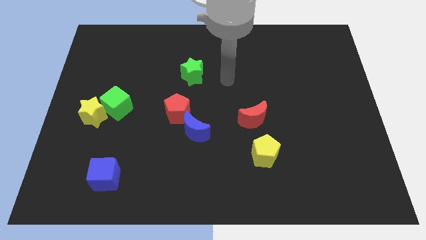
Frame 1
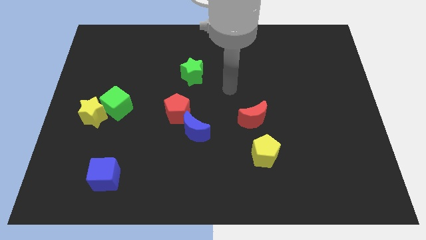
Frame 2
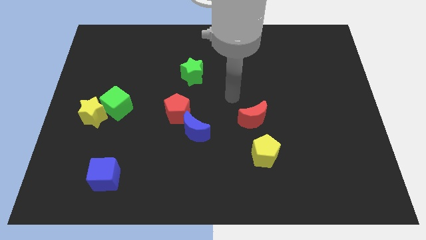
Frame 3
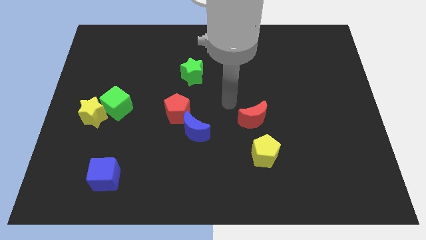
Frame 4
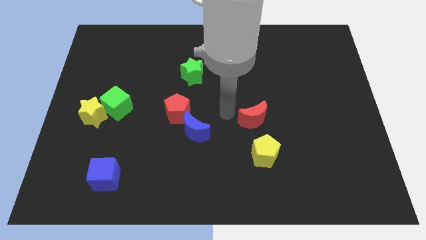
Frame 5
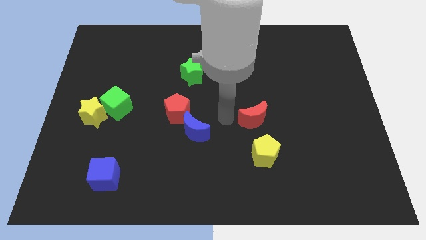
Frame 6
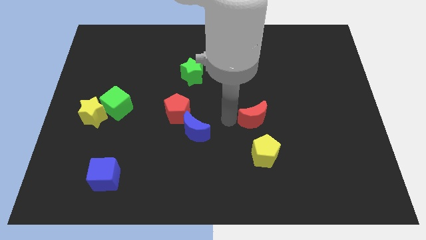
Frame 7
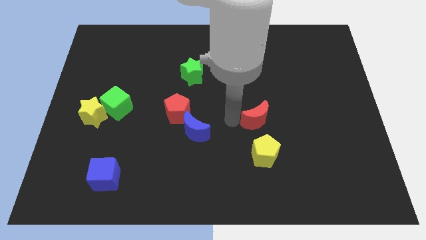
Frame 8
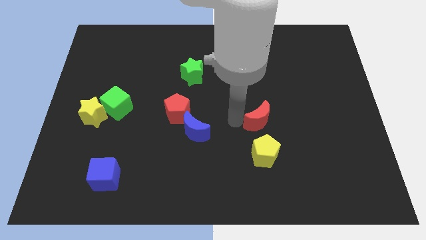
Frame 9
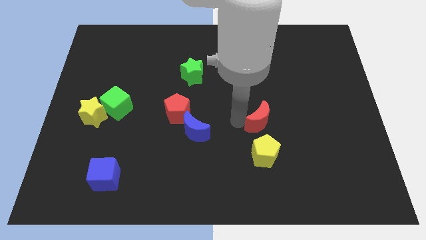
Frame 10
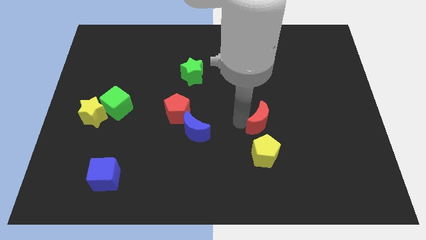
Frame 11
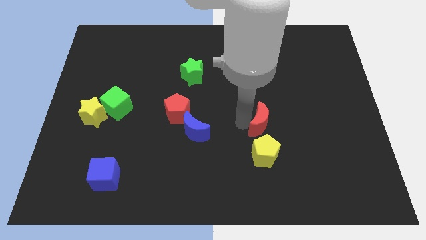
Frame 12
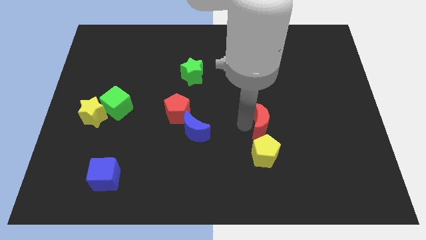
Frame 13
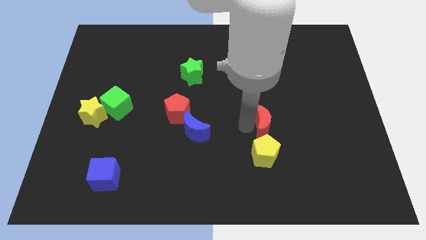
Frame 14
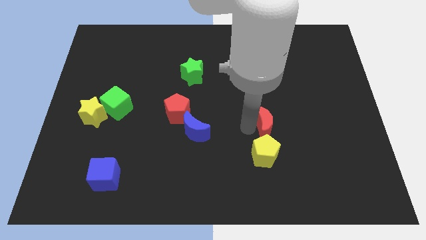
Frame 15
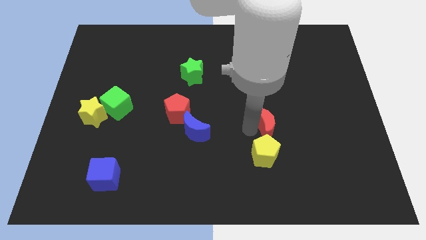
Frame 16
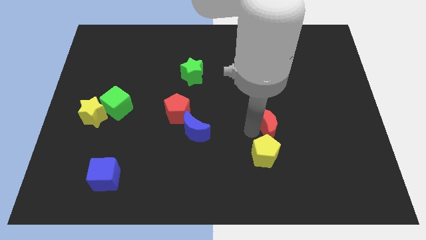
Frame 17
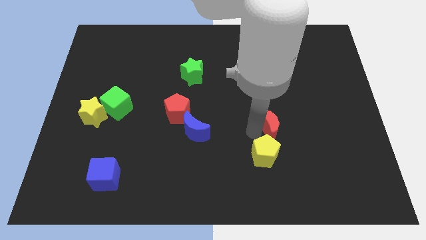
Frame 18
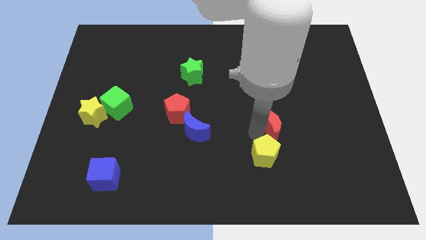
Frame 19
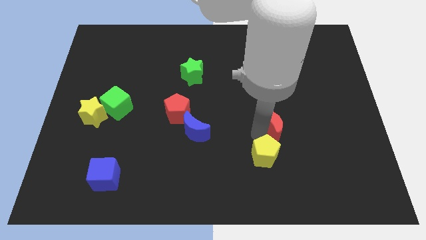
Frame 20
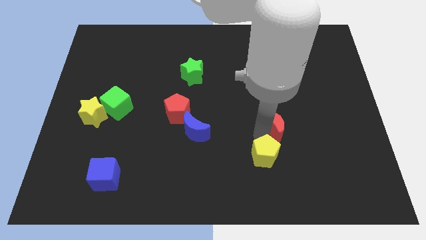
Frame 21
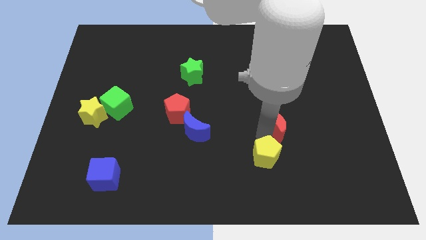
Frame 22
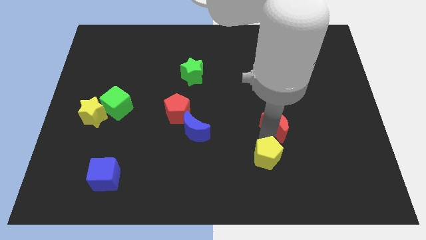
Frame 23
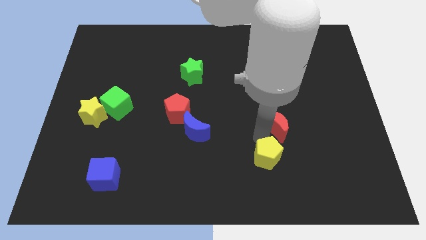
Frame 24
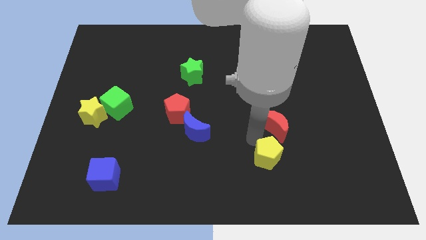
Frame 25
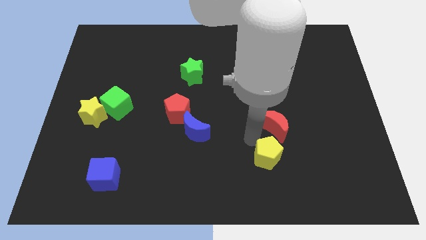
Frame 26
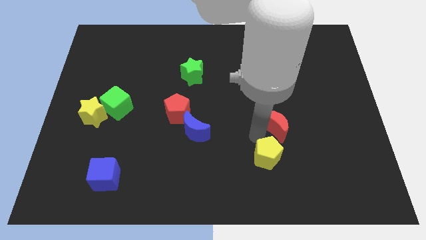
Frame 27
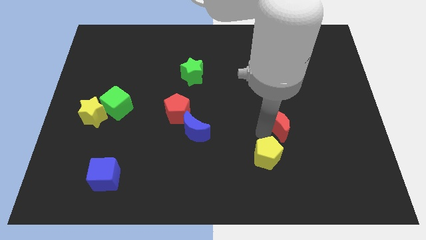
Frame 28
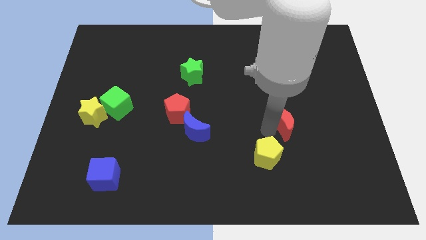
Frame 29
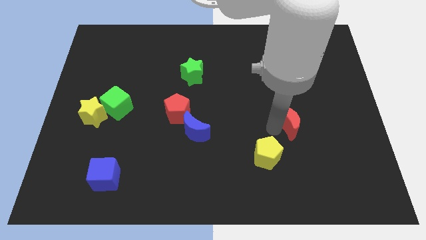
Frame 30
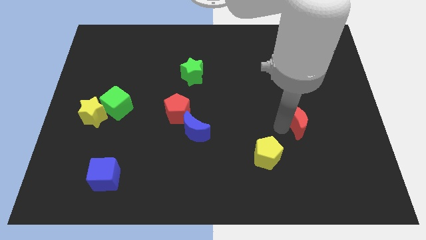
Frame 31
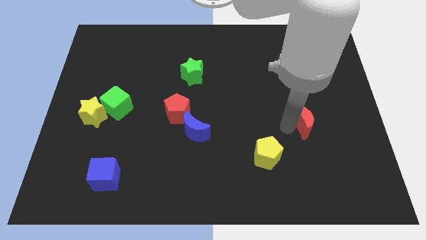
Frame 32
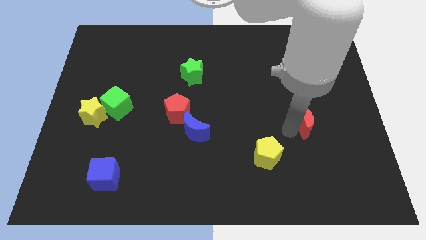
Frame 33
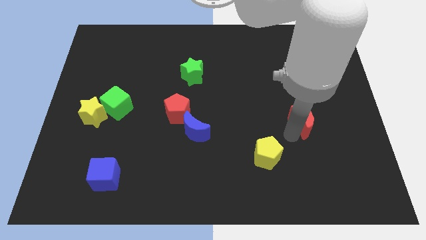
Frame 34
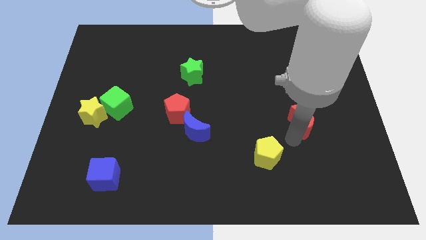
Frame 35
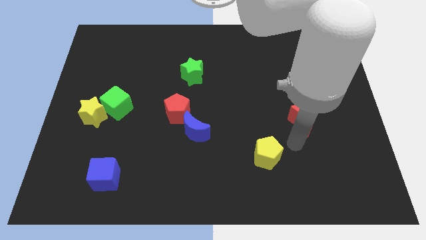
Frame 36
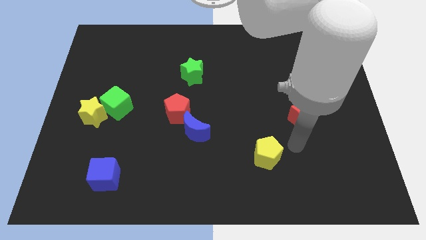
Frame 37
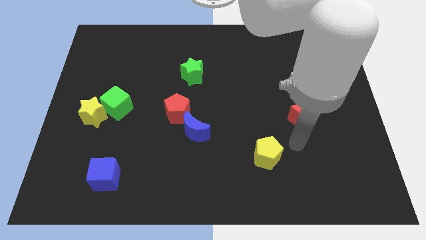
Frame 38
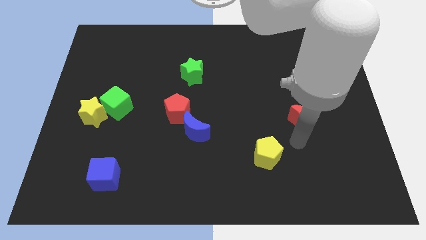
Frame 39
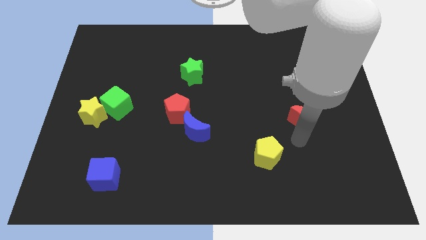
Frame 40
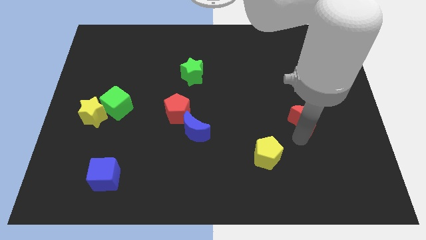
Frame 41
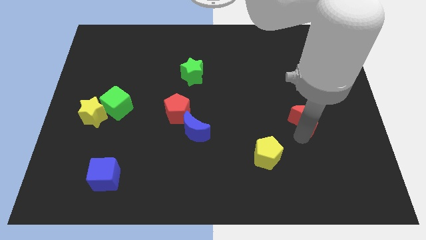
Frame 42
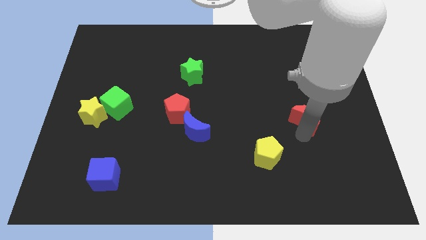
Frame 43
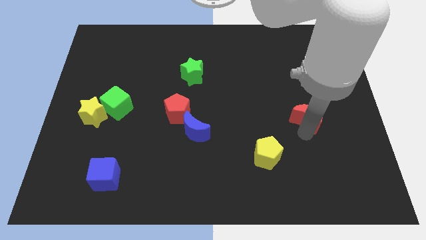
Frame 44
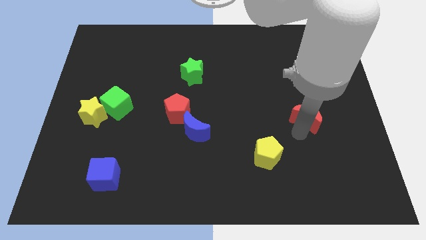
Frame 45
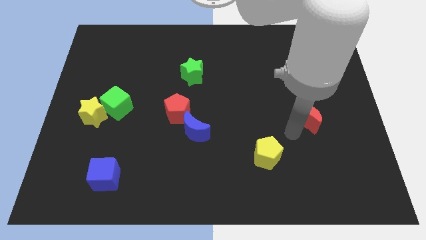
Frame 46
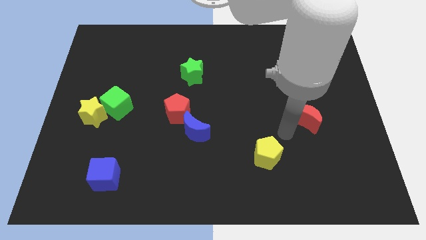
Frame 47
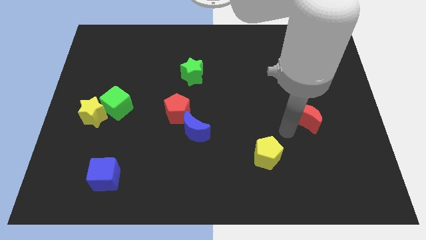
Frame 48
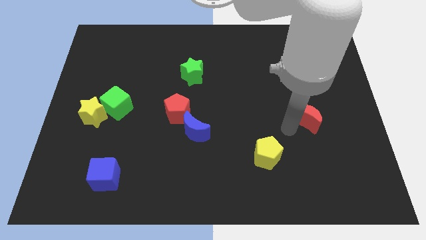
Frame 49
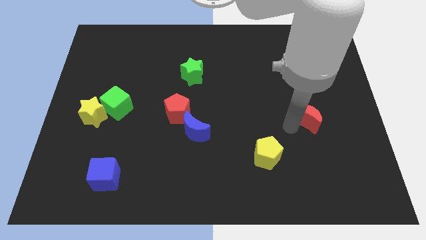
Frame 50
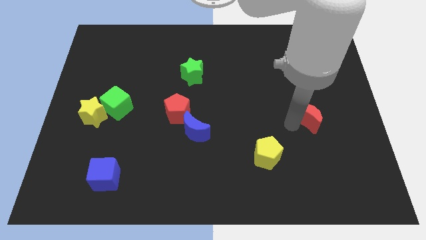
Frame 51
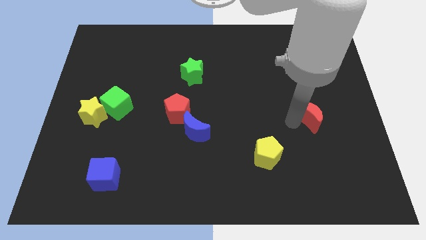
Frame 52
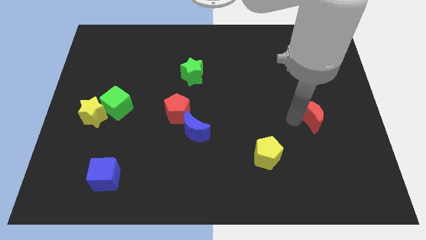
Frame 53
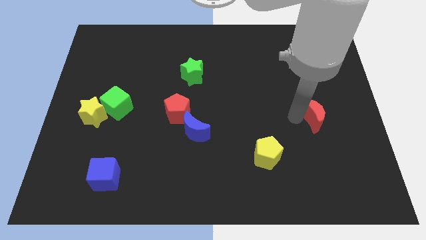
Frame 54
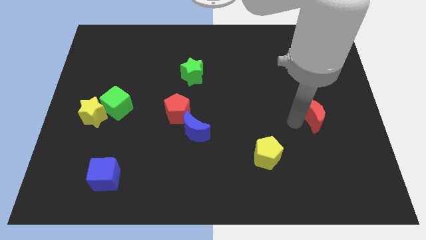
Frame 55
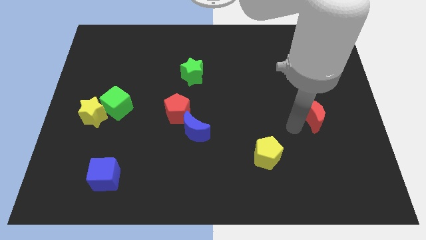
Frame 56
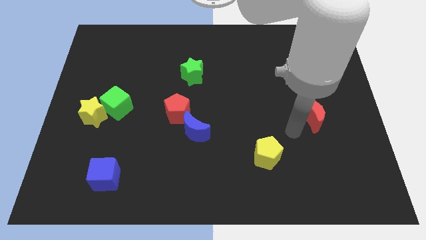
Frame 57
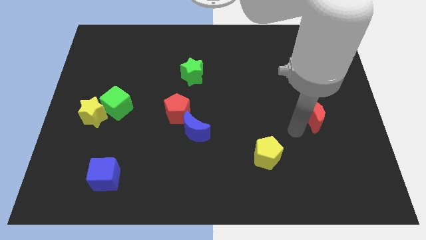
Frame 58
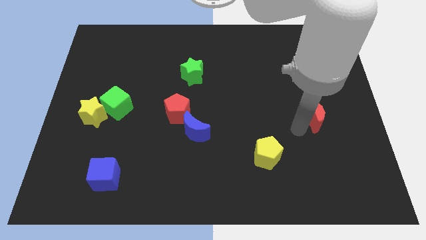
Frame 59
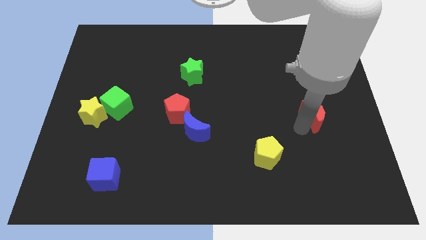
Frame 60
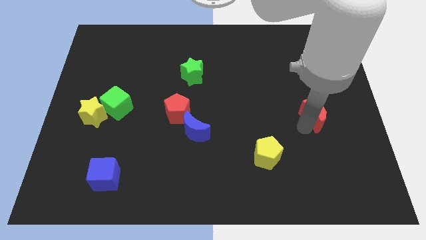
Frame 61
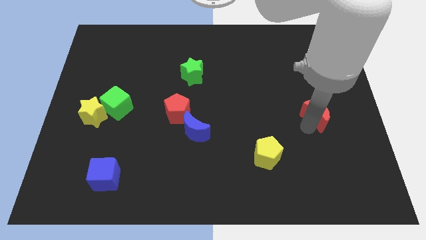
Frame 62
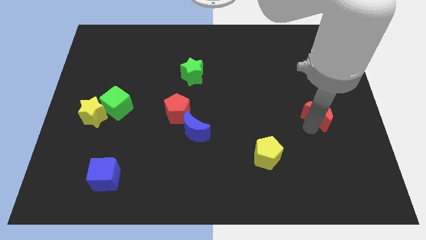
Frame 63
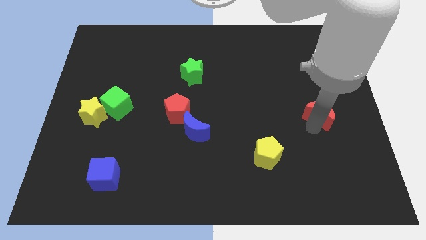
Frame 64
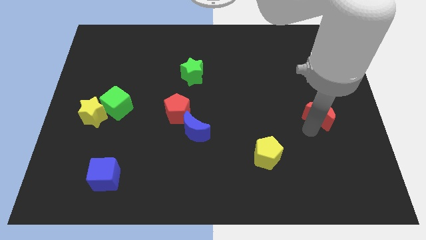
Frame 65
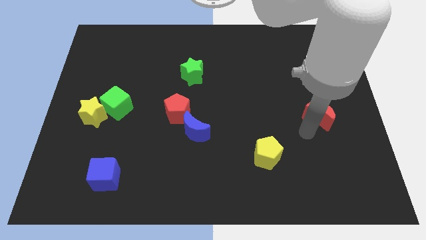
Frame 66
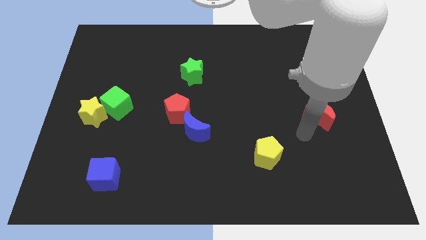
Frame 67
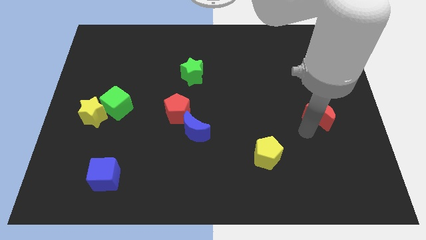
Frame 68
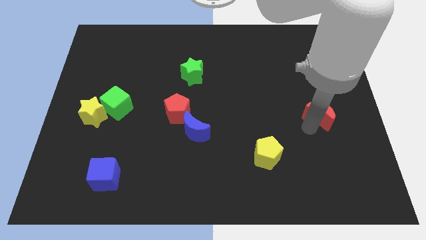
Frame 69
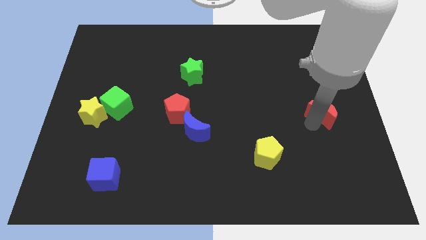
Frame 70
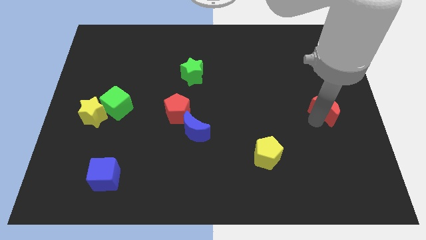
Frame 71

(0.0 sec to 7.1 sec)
put the red moon to the right side of the board
